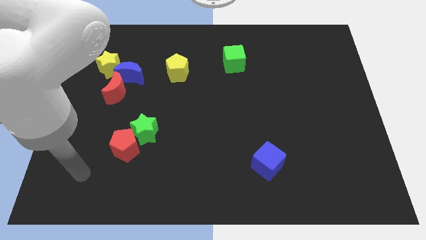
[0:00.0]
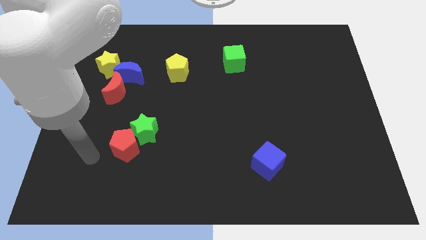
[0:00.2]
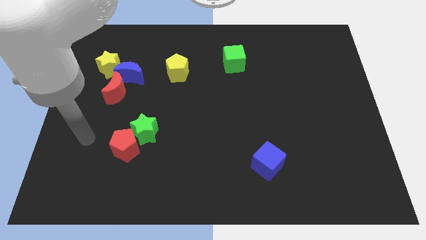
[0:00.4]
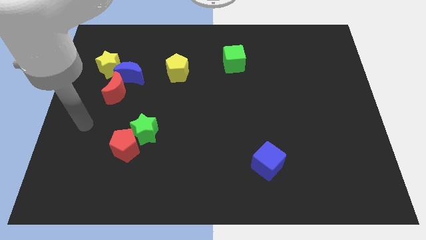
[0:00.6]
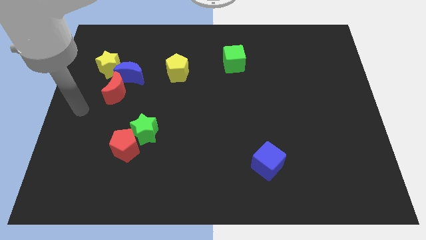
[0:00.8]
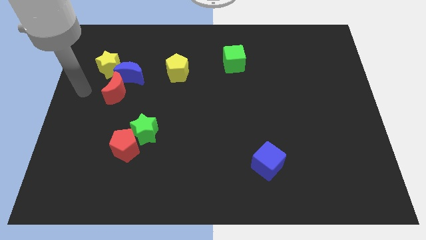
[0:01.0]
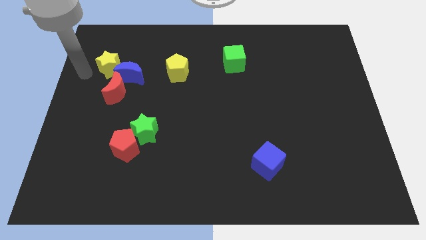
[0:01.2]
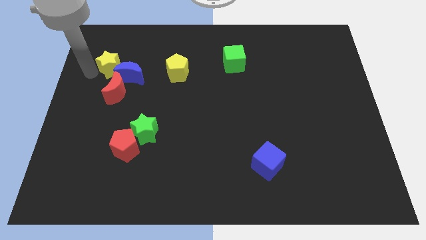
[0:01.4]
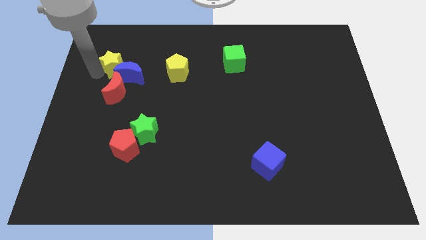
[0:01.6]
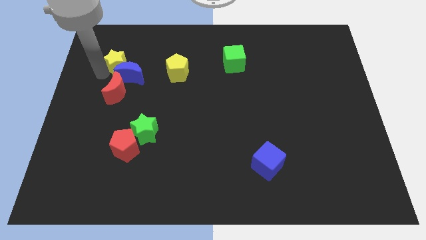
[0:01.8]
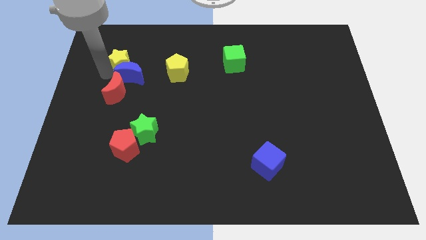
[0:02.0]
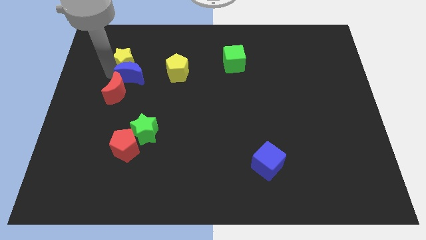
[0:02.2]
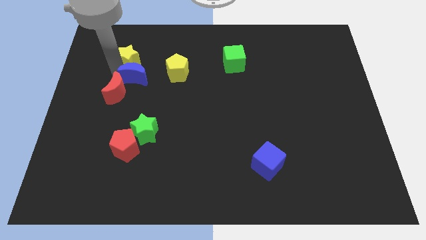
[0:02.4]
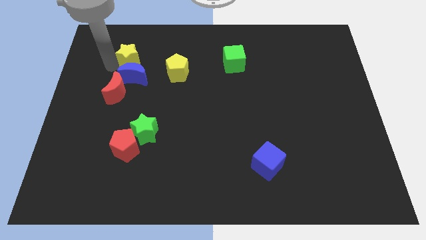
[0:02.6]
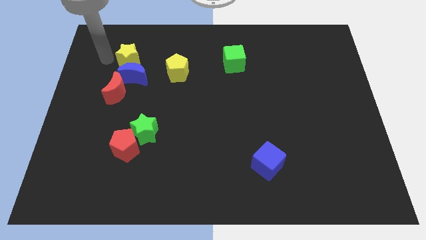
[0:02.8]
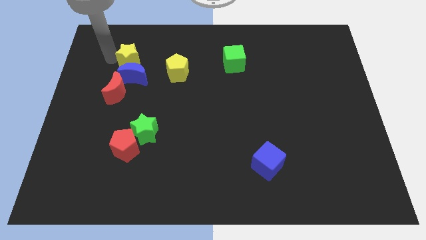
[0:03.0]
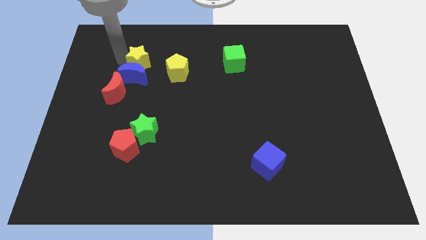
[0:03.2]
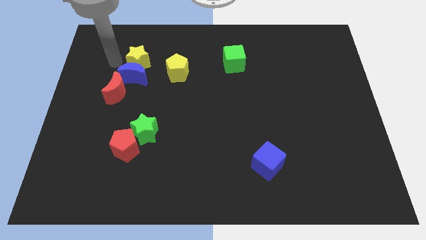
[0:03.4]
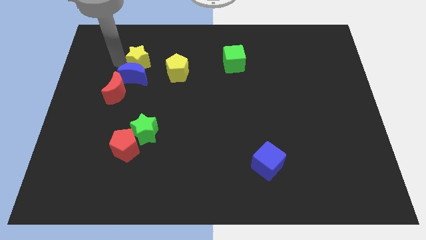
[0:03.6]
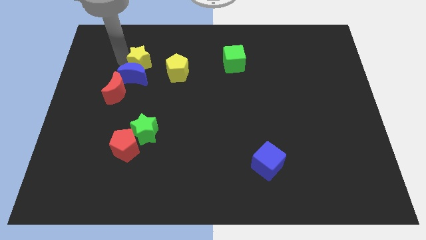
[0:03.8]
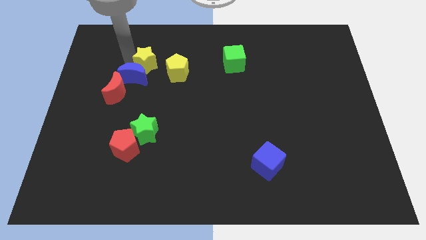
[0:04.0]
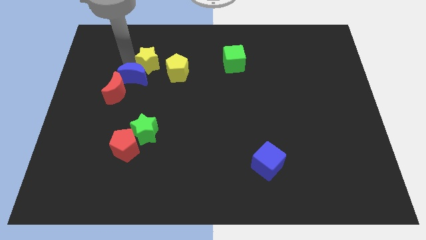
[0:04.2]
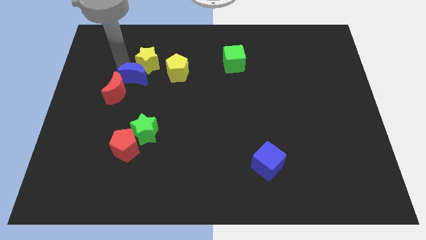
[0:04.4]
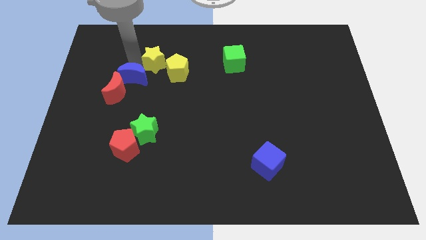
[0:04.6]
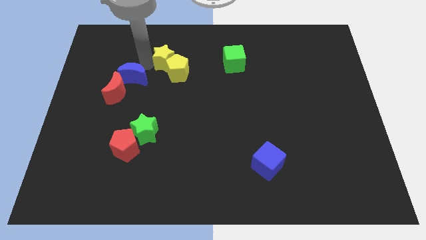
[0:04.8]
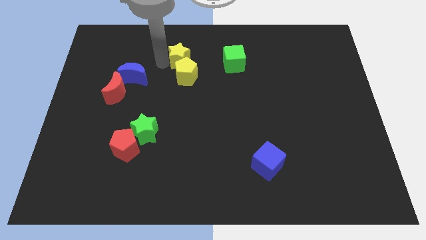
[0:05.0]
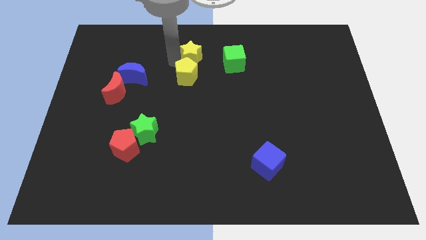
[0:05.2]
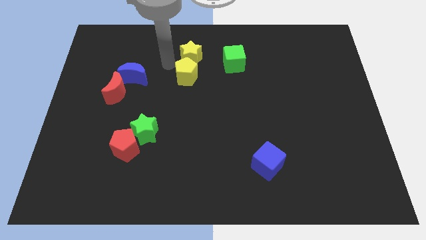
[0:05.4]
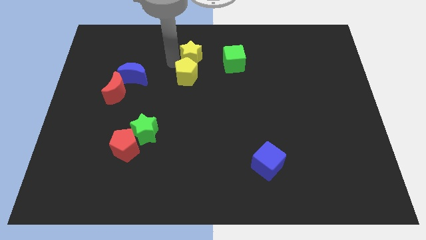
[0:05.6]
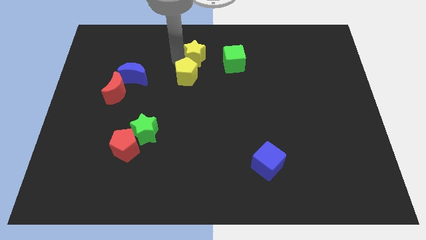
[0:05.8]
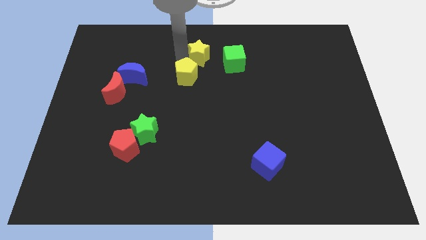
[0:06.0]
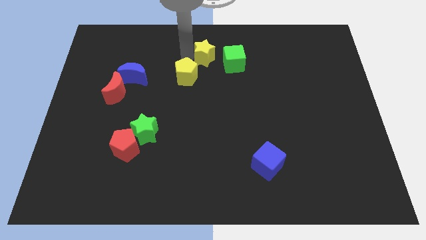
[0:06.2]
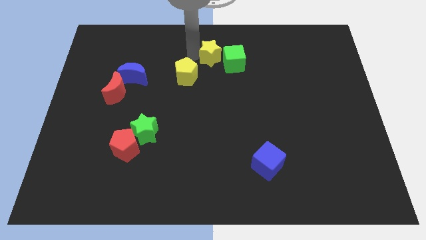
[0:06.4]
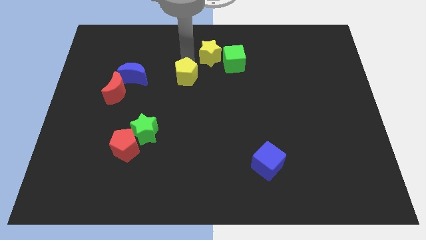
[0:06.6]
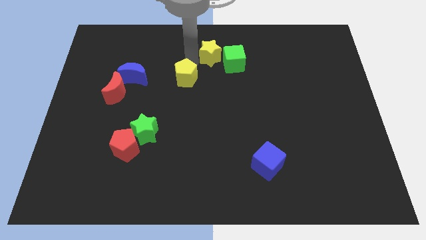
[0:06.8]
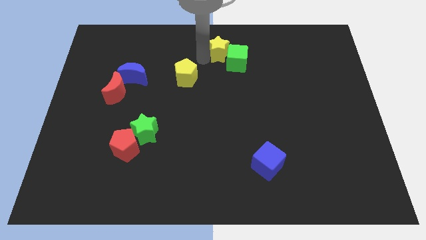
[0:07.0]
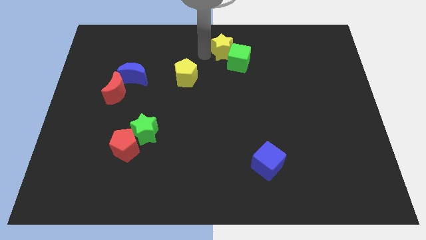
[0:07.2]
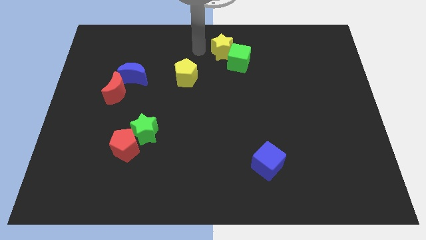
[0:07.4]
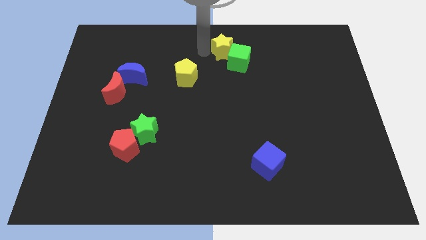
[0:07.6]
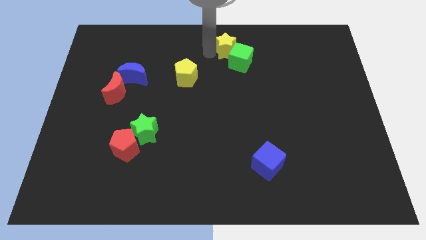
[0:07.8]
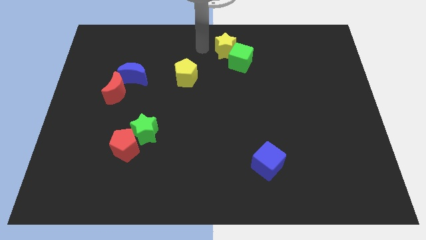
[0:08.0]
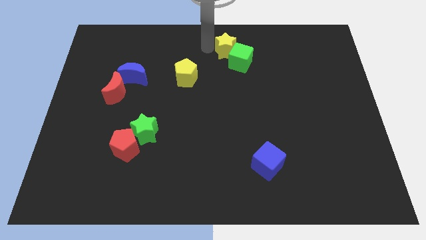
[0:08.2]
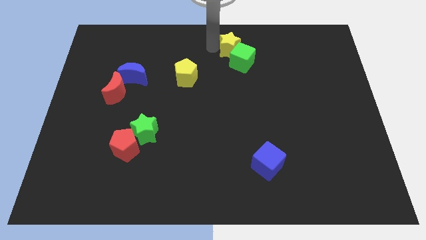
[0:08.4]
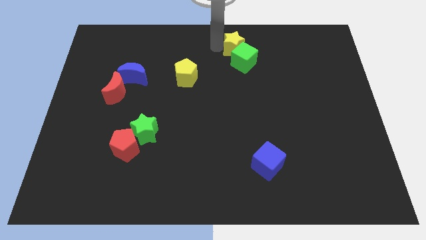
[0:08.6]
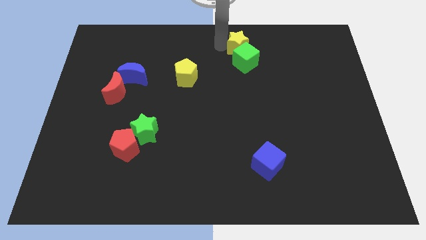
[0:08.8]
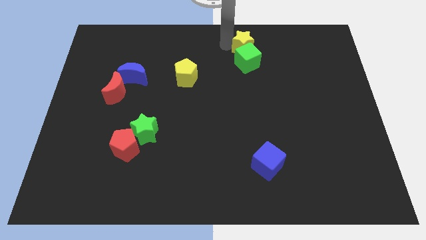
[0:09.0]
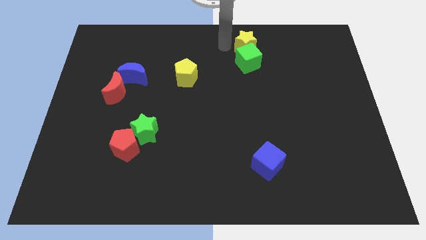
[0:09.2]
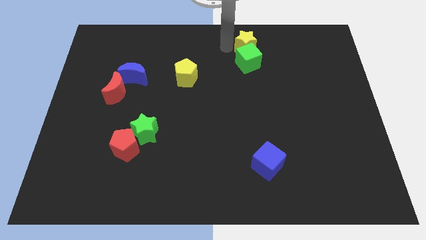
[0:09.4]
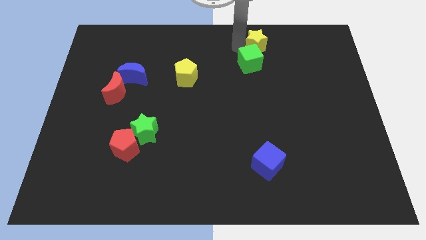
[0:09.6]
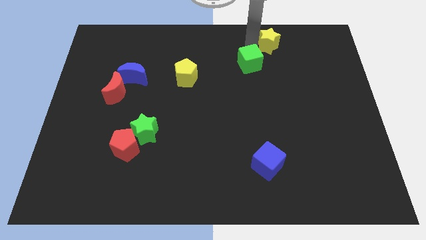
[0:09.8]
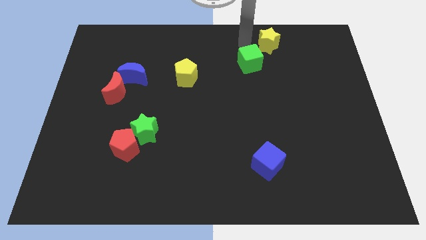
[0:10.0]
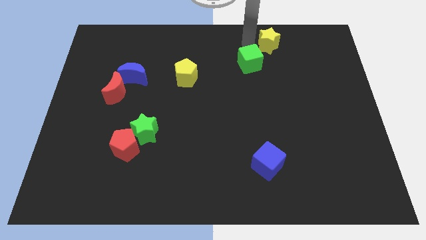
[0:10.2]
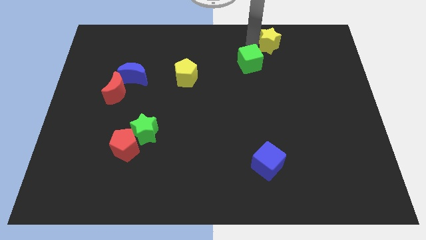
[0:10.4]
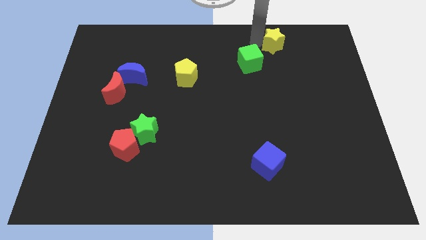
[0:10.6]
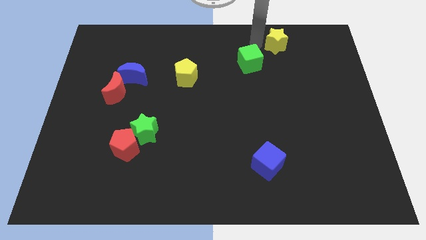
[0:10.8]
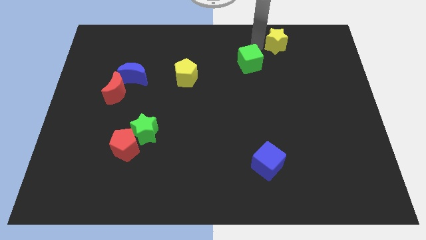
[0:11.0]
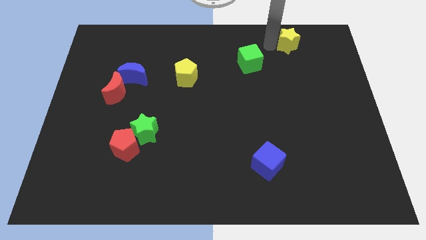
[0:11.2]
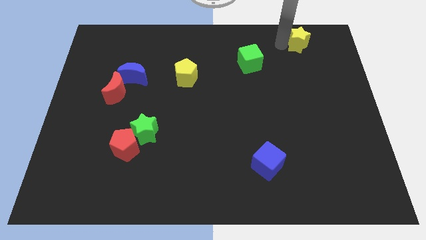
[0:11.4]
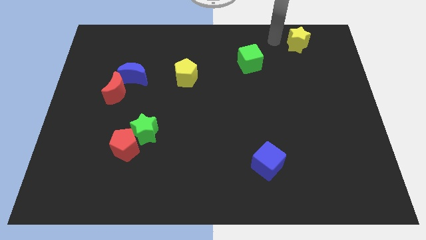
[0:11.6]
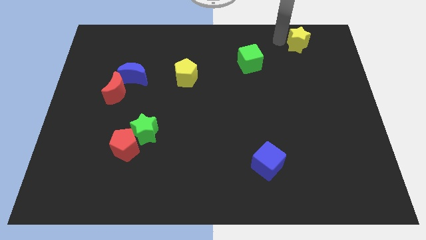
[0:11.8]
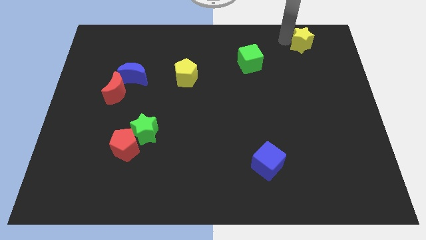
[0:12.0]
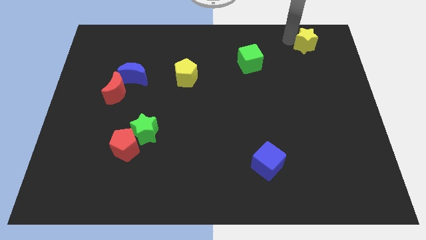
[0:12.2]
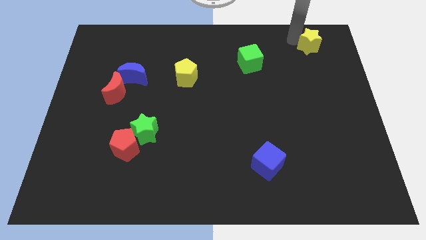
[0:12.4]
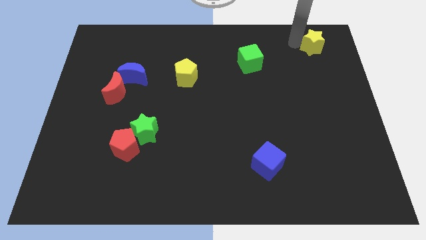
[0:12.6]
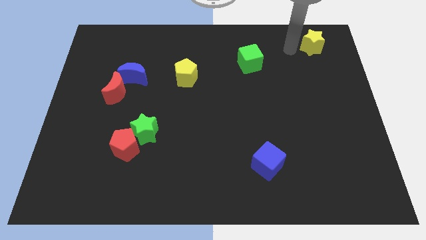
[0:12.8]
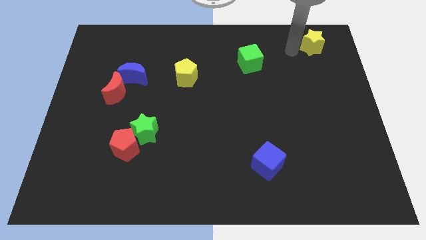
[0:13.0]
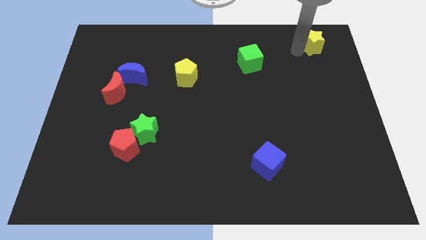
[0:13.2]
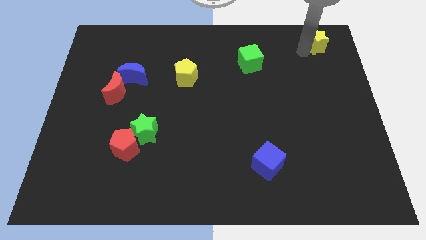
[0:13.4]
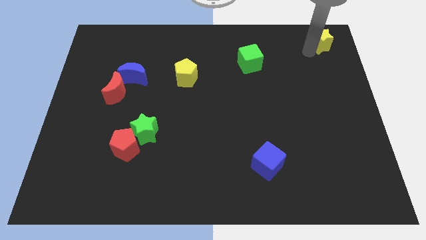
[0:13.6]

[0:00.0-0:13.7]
move the yellow star to the upper right corner
